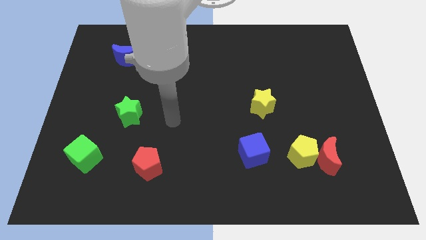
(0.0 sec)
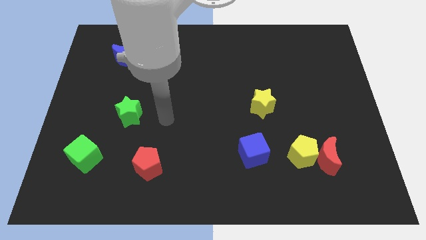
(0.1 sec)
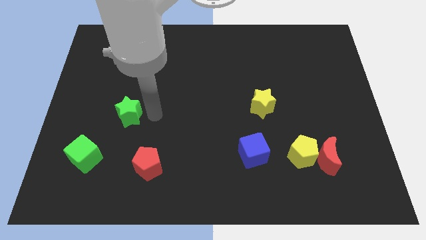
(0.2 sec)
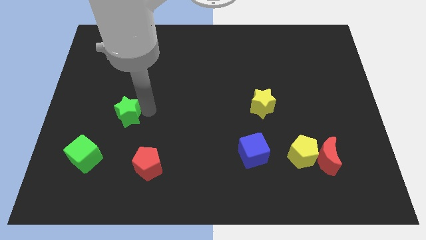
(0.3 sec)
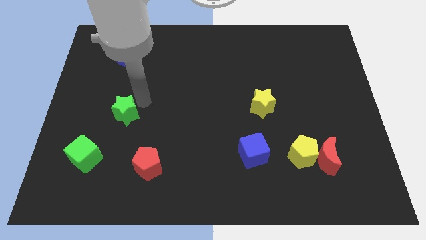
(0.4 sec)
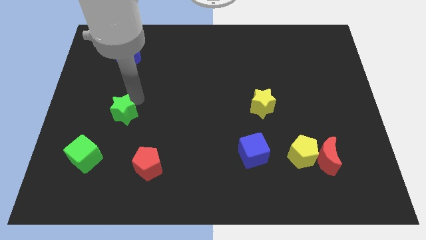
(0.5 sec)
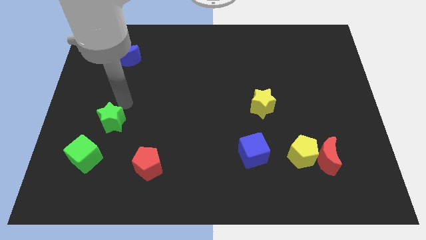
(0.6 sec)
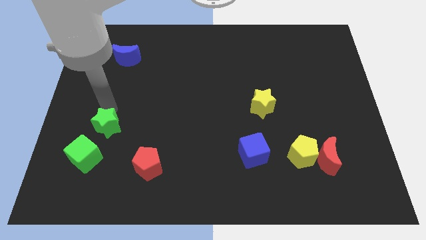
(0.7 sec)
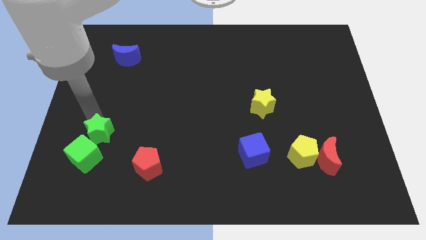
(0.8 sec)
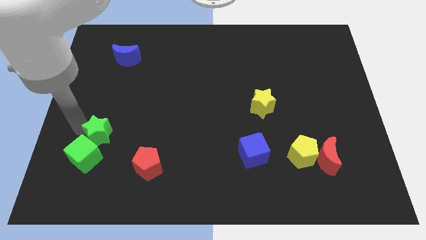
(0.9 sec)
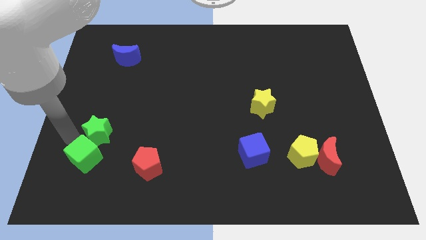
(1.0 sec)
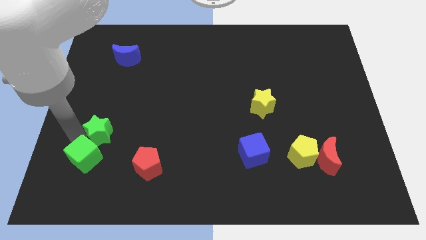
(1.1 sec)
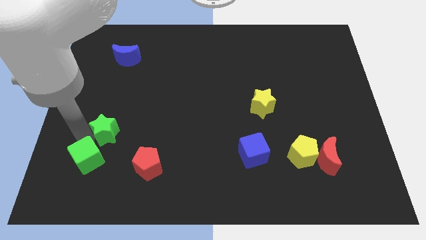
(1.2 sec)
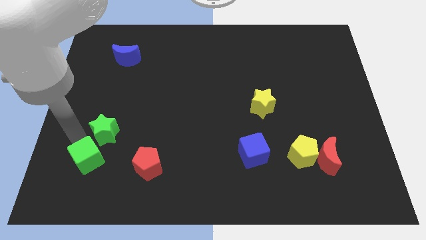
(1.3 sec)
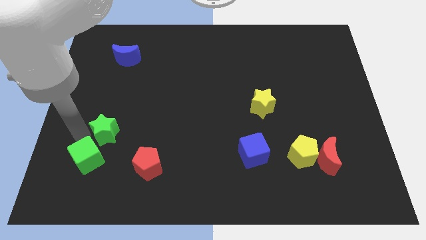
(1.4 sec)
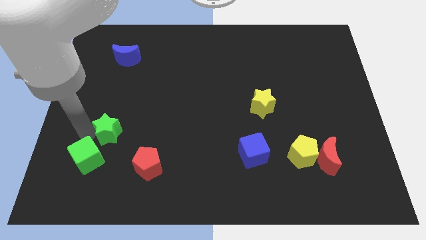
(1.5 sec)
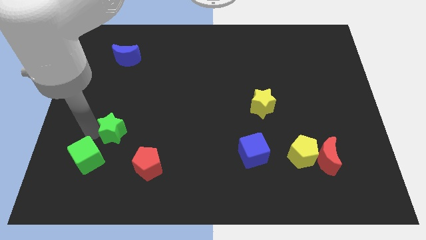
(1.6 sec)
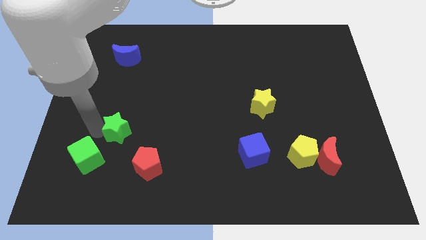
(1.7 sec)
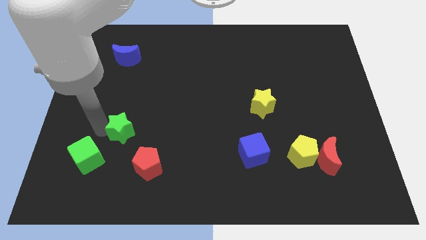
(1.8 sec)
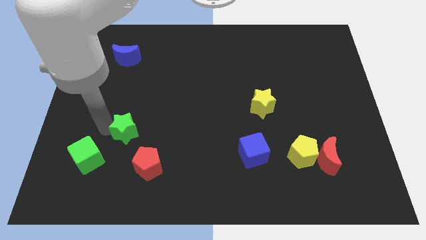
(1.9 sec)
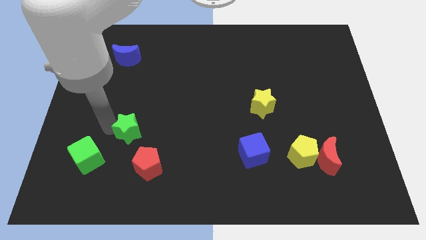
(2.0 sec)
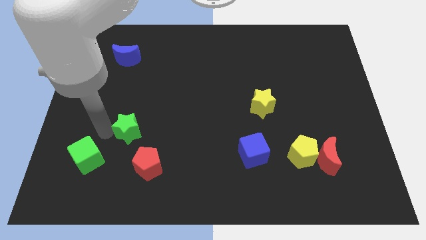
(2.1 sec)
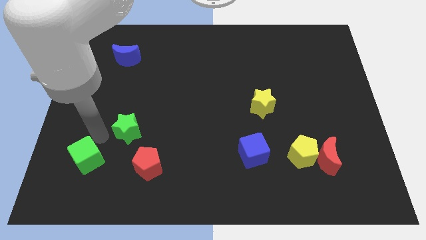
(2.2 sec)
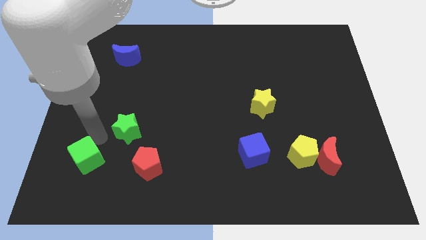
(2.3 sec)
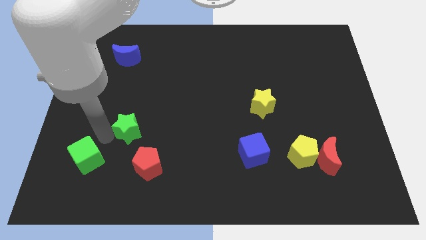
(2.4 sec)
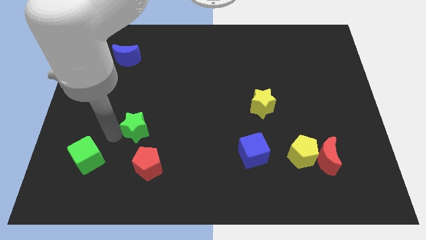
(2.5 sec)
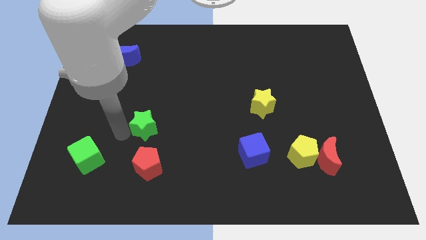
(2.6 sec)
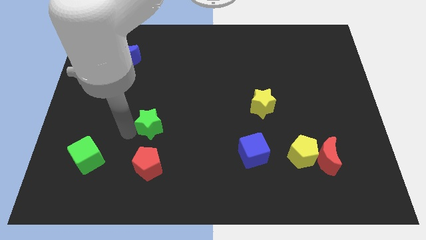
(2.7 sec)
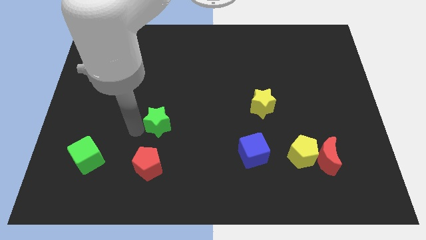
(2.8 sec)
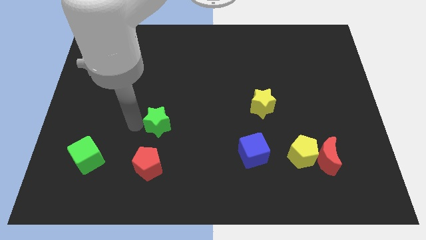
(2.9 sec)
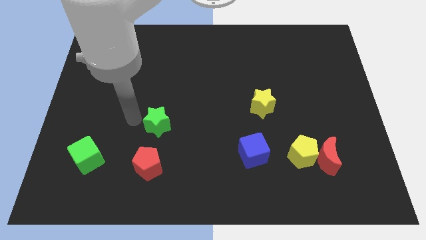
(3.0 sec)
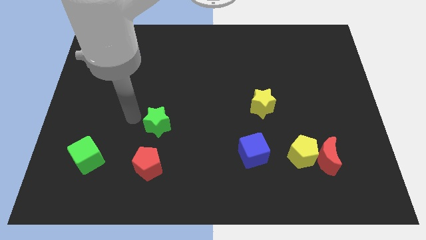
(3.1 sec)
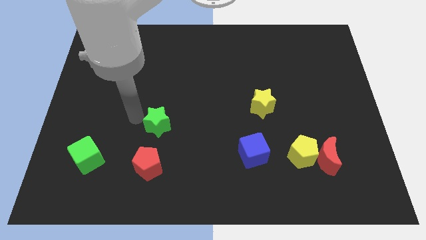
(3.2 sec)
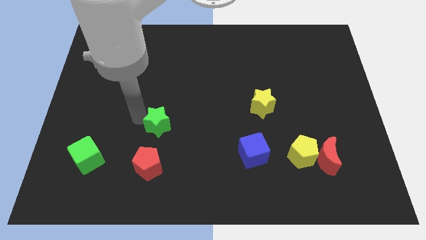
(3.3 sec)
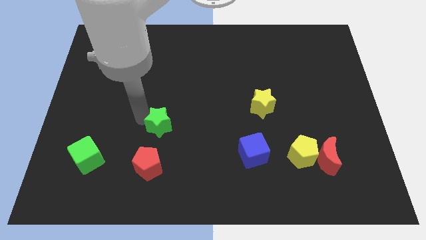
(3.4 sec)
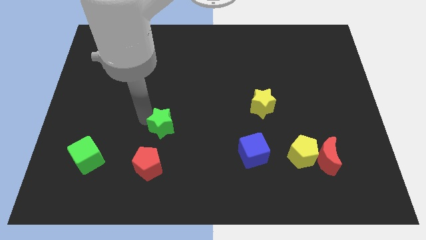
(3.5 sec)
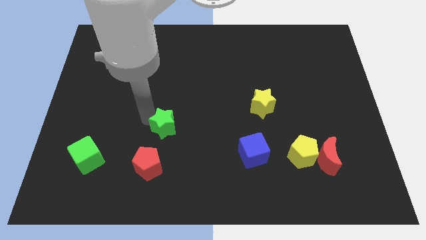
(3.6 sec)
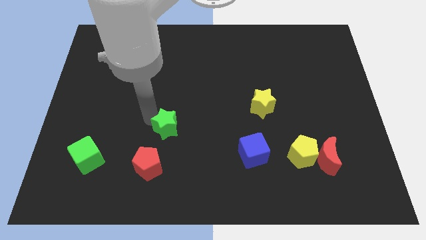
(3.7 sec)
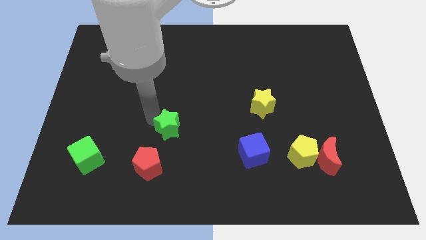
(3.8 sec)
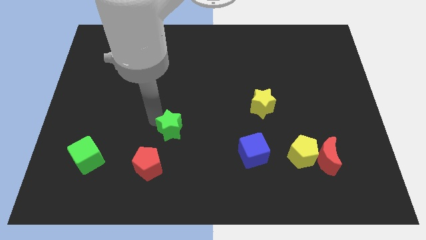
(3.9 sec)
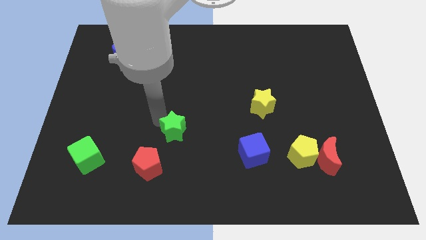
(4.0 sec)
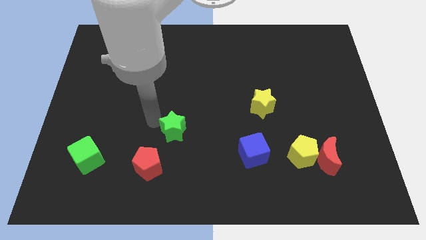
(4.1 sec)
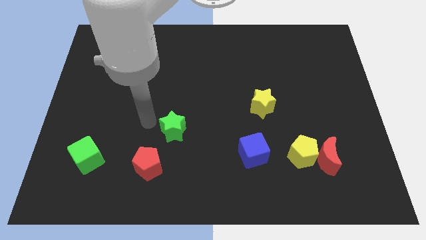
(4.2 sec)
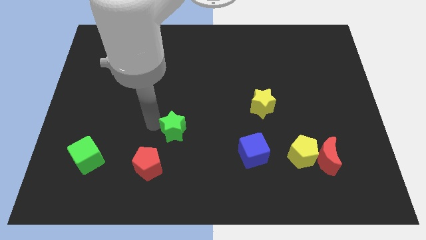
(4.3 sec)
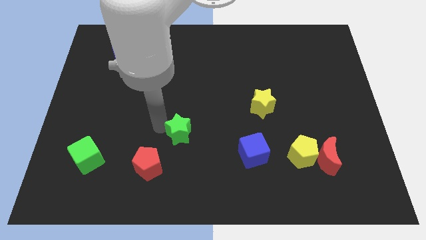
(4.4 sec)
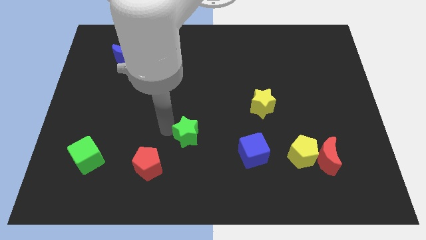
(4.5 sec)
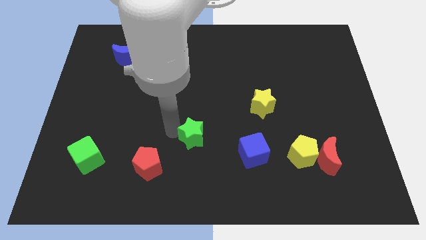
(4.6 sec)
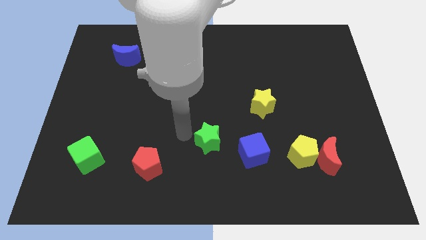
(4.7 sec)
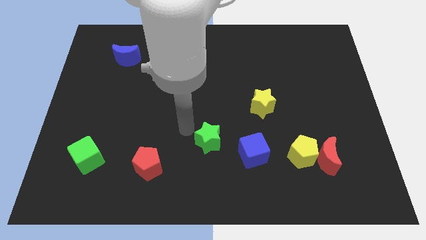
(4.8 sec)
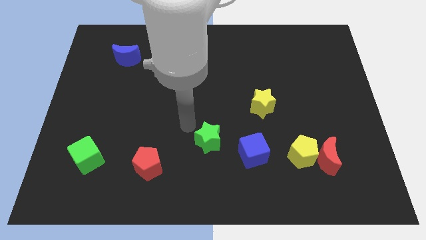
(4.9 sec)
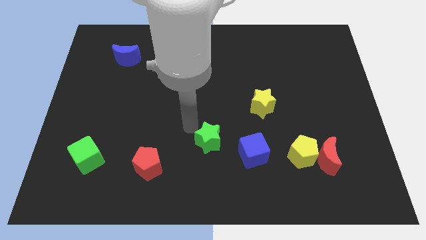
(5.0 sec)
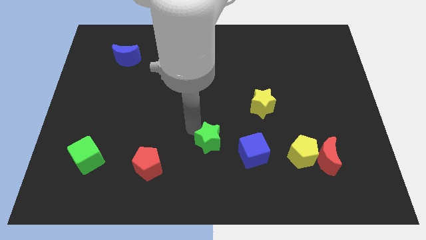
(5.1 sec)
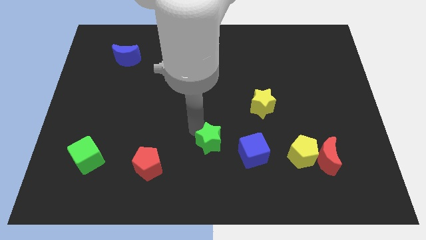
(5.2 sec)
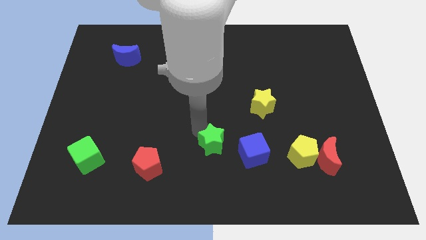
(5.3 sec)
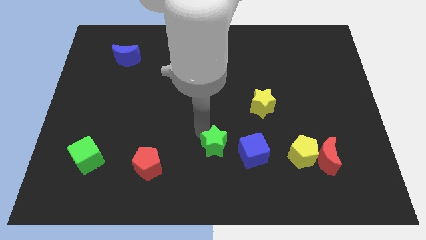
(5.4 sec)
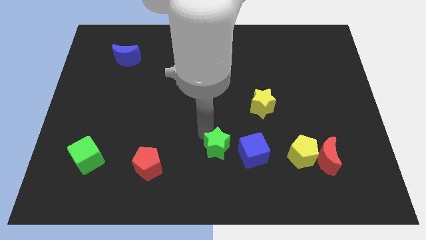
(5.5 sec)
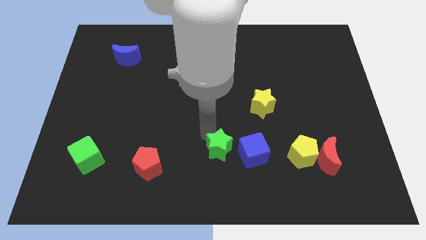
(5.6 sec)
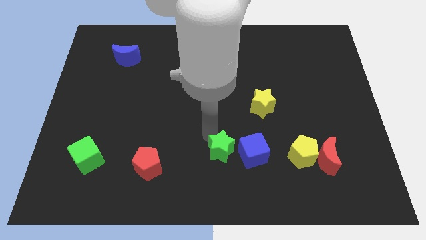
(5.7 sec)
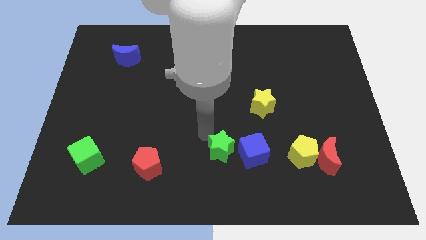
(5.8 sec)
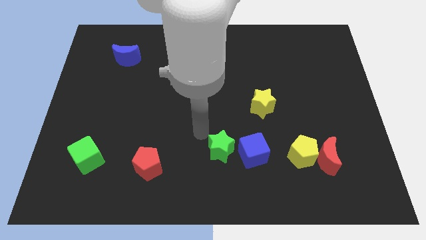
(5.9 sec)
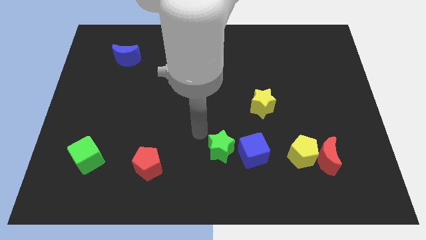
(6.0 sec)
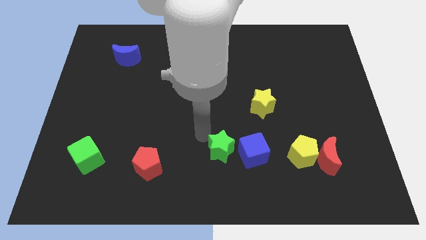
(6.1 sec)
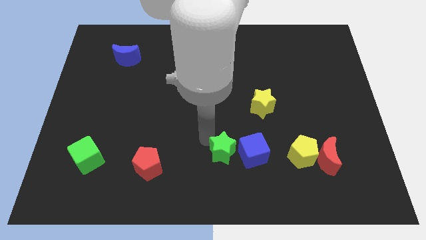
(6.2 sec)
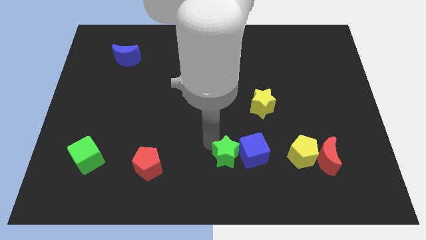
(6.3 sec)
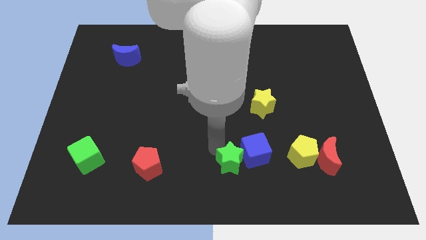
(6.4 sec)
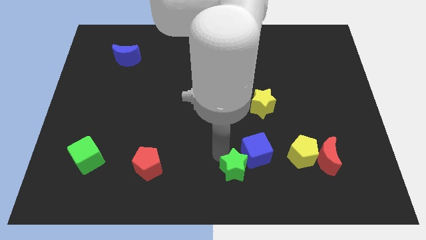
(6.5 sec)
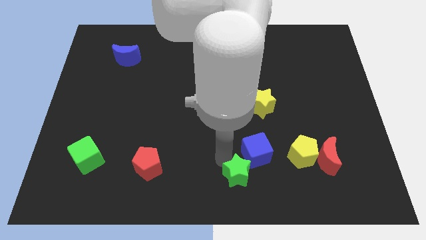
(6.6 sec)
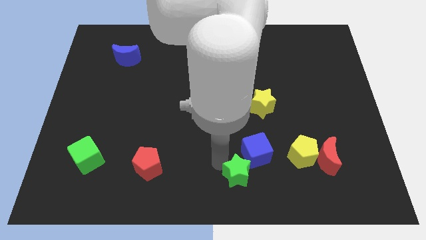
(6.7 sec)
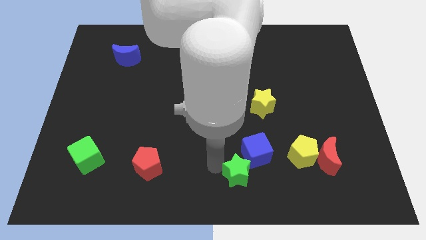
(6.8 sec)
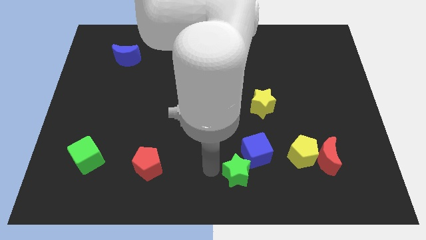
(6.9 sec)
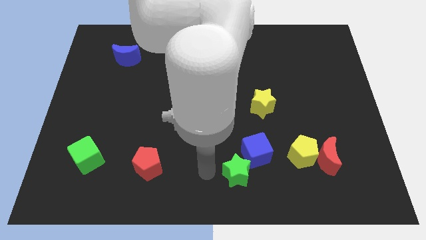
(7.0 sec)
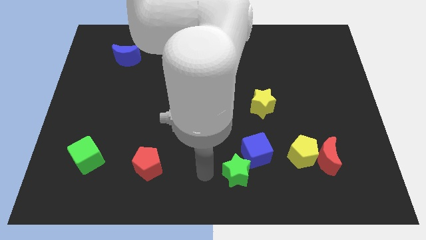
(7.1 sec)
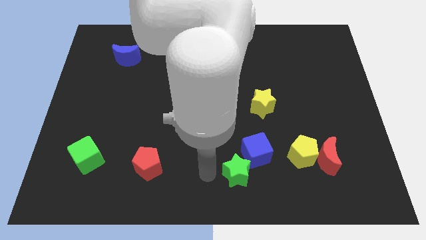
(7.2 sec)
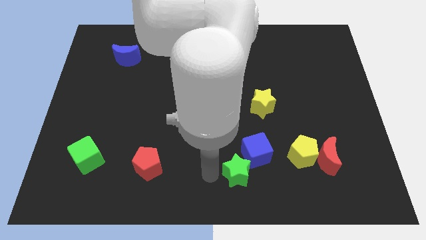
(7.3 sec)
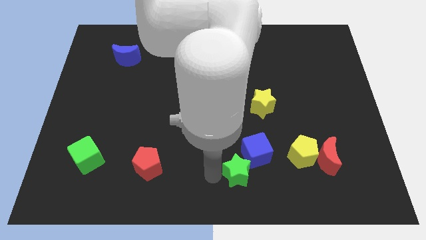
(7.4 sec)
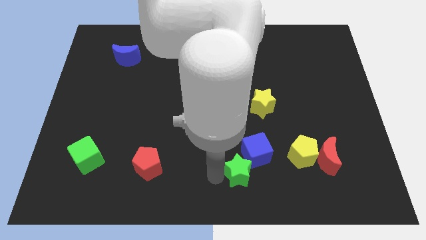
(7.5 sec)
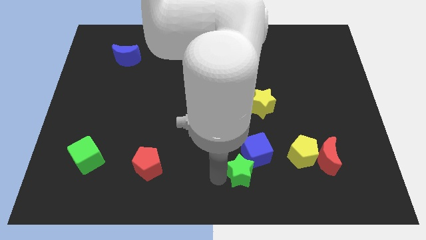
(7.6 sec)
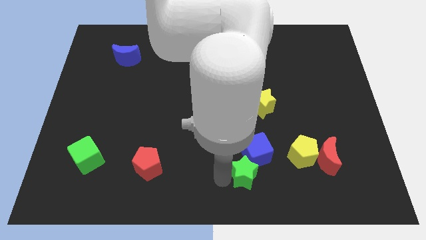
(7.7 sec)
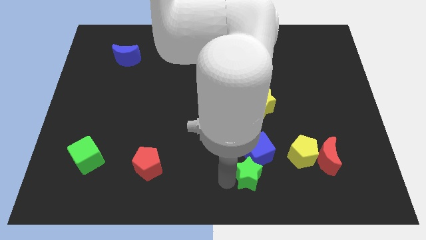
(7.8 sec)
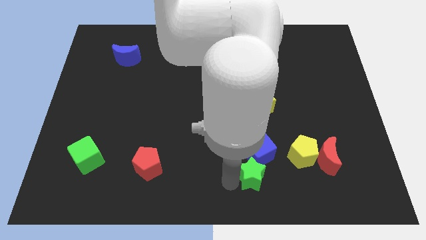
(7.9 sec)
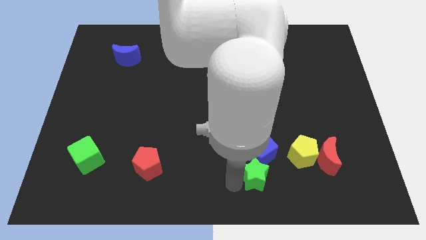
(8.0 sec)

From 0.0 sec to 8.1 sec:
put the green star to the bottom left of the yellow pentagon
